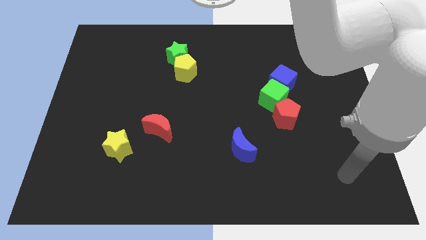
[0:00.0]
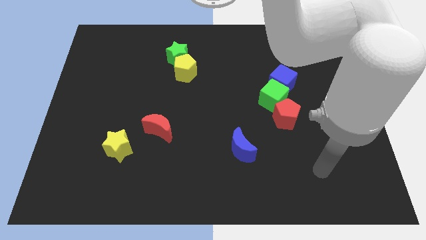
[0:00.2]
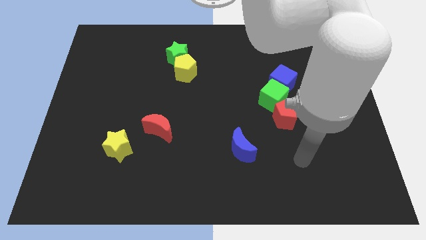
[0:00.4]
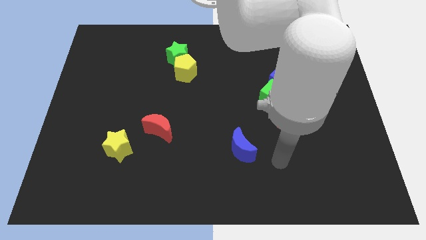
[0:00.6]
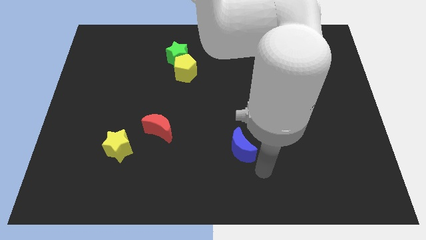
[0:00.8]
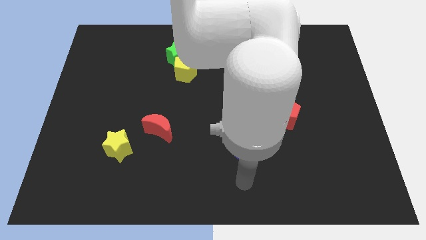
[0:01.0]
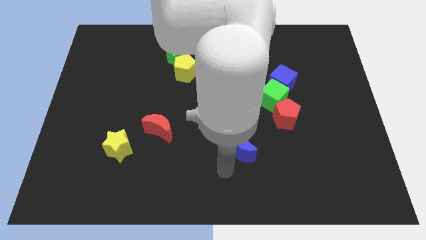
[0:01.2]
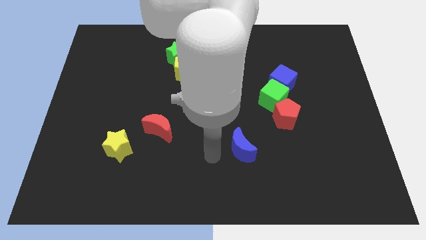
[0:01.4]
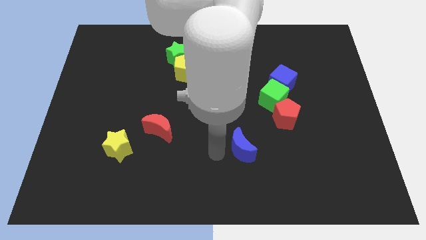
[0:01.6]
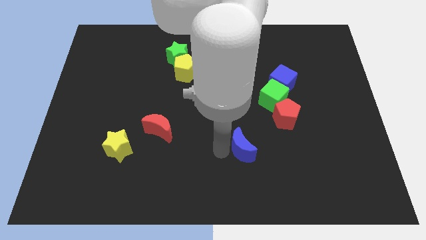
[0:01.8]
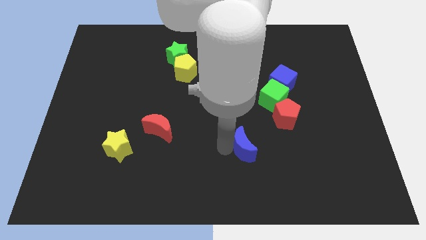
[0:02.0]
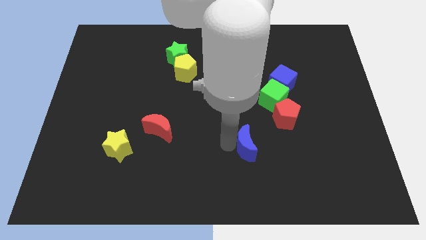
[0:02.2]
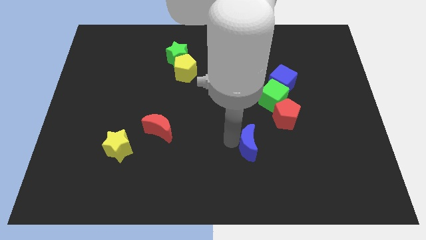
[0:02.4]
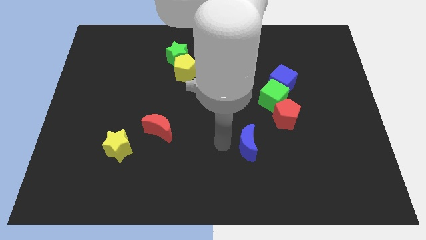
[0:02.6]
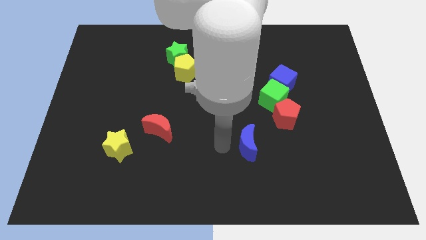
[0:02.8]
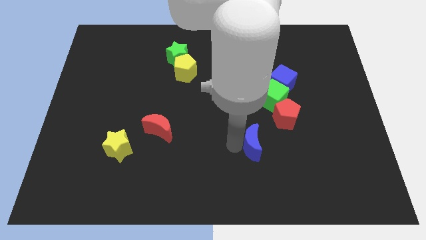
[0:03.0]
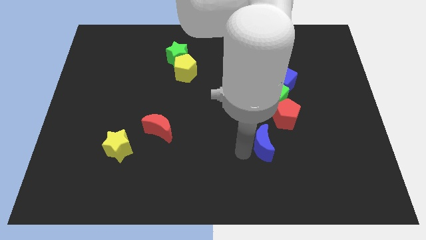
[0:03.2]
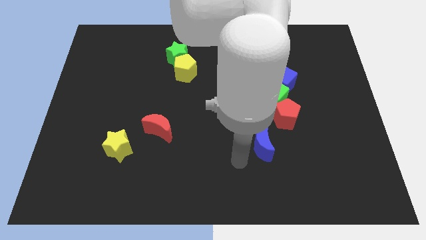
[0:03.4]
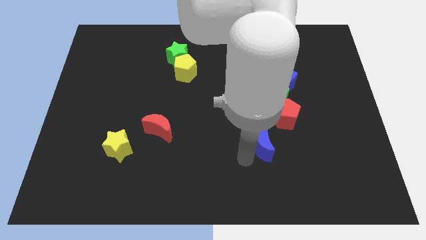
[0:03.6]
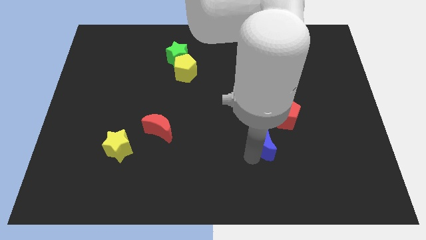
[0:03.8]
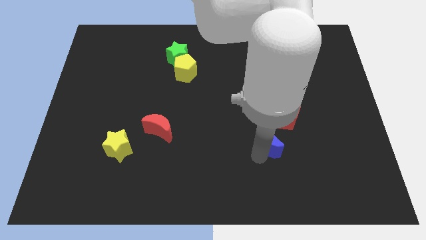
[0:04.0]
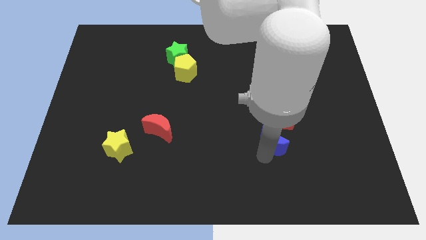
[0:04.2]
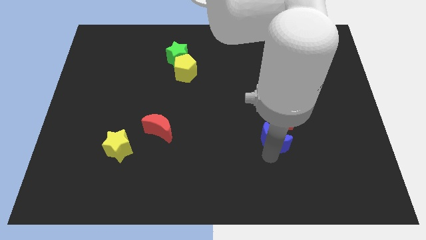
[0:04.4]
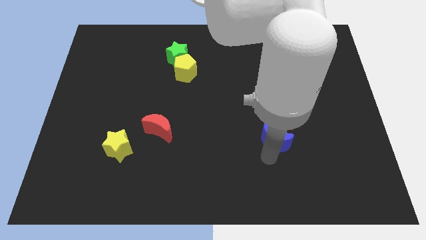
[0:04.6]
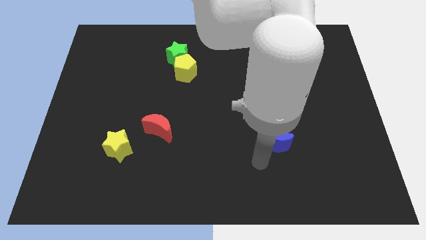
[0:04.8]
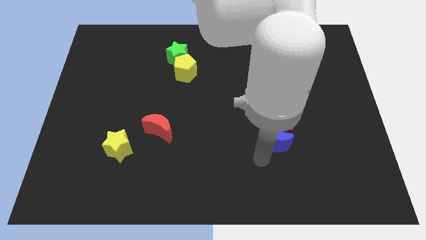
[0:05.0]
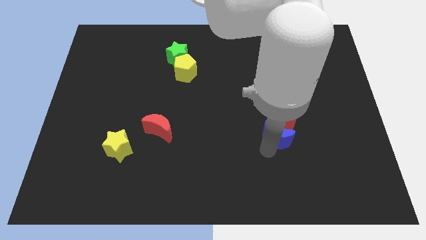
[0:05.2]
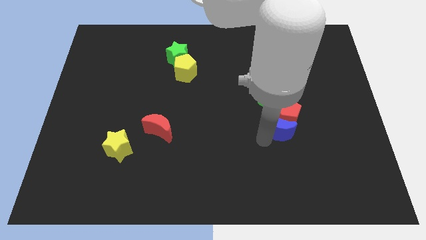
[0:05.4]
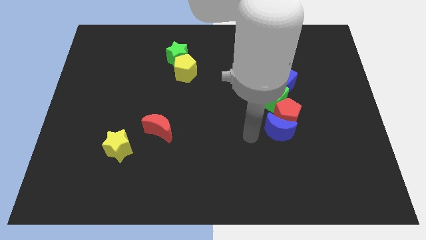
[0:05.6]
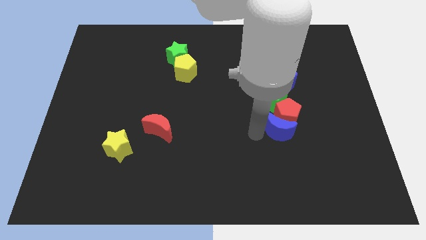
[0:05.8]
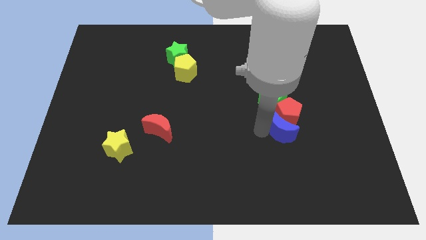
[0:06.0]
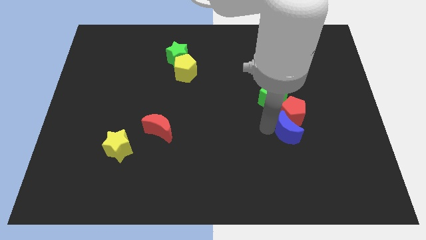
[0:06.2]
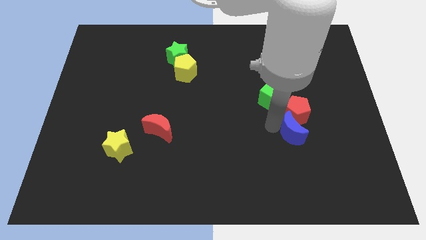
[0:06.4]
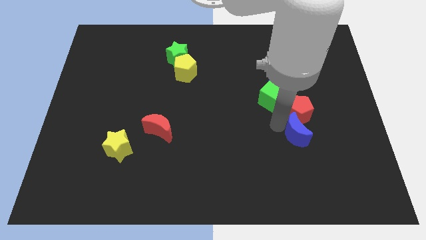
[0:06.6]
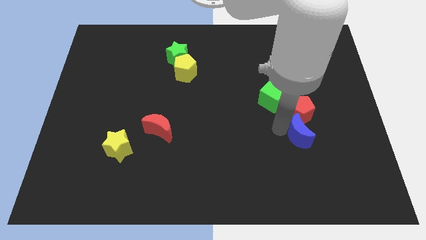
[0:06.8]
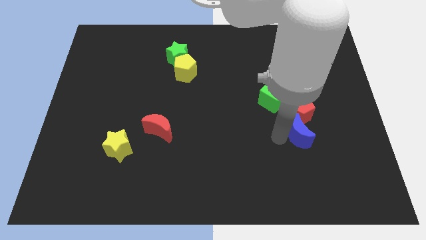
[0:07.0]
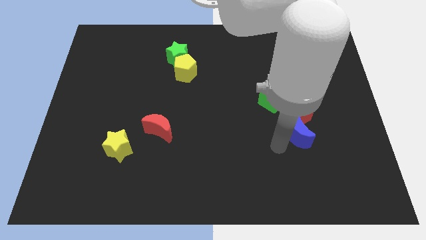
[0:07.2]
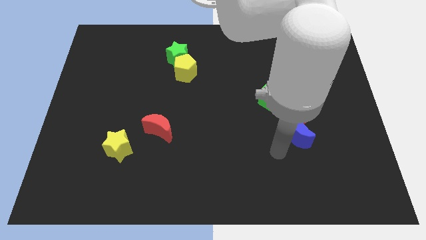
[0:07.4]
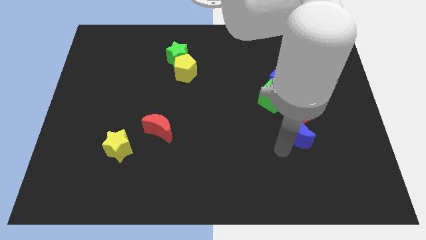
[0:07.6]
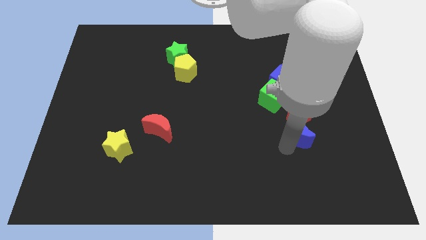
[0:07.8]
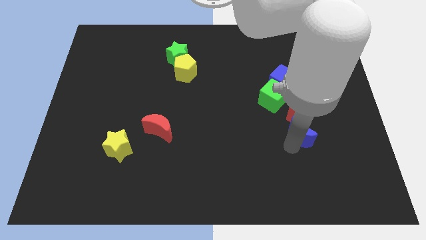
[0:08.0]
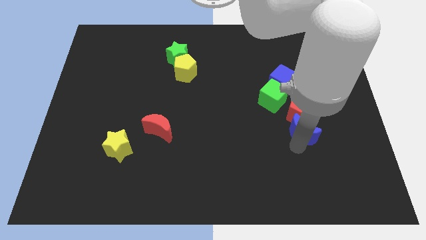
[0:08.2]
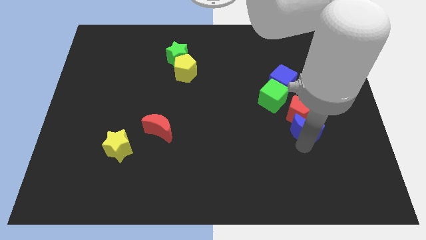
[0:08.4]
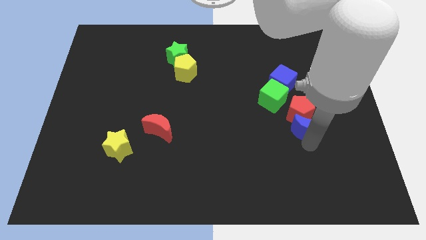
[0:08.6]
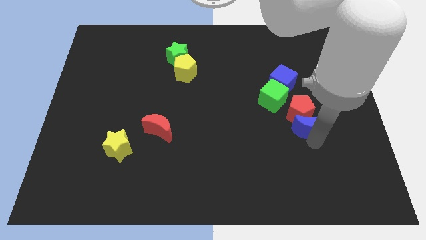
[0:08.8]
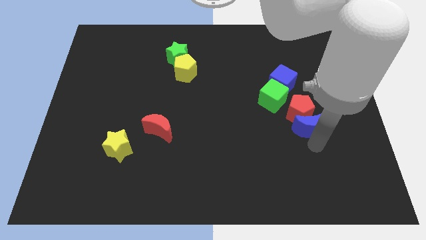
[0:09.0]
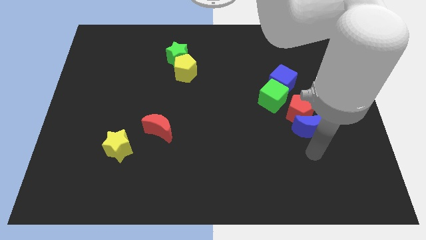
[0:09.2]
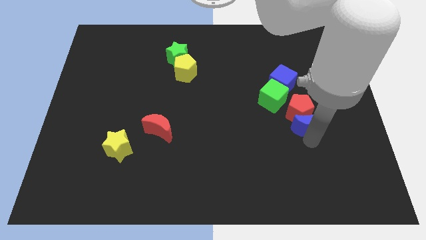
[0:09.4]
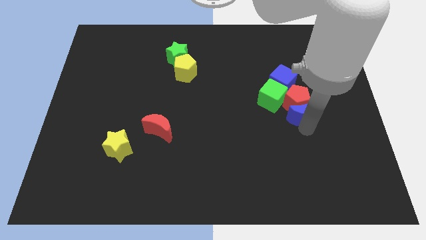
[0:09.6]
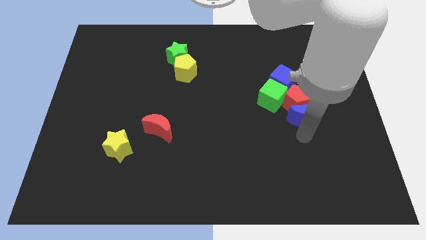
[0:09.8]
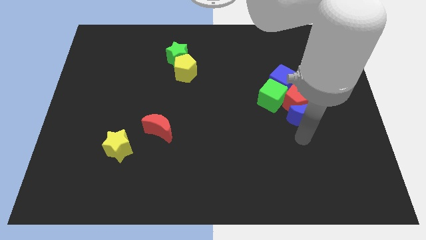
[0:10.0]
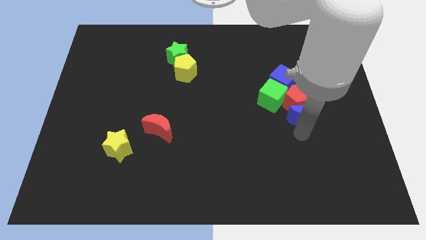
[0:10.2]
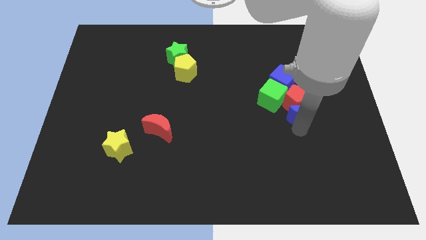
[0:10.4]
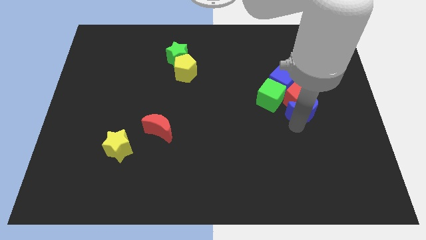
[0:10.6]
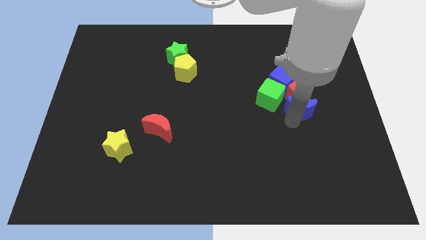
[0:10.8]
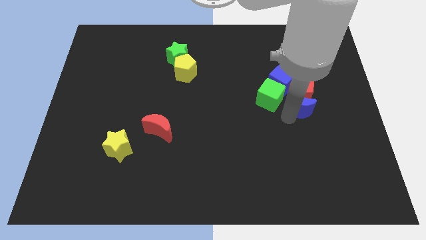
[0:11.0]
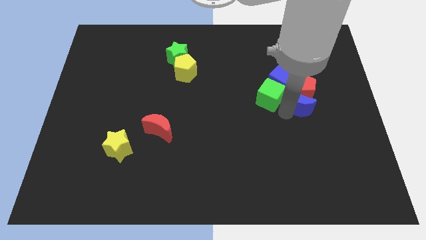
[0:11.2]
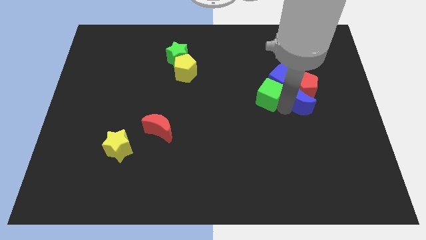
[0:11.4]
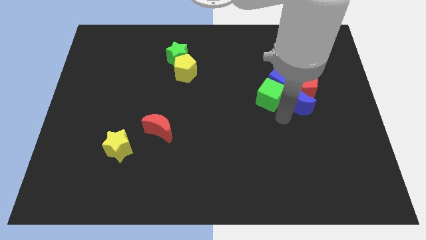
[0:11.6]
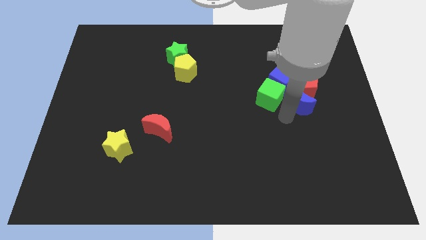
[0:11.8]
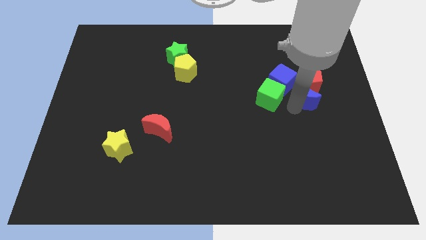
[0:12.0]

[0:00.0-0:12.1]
push the blue moon up and to the right diagonally

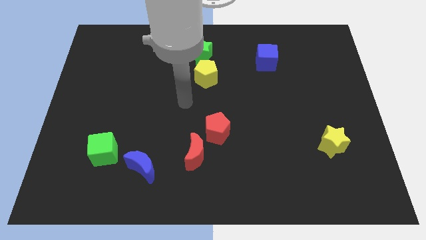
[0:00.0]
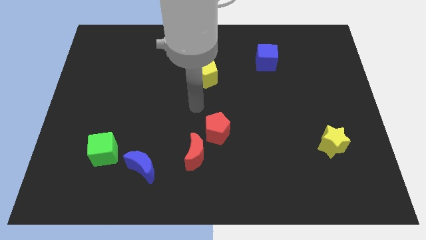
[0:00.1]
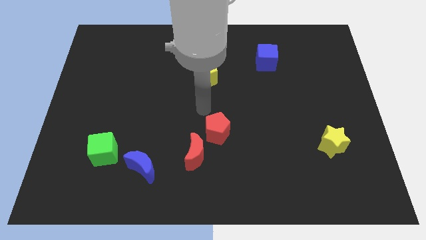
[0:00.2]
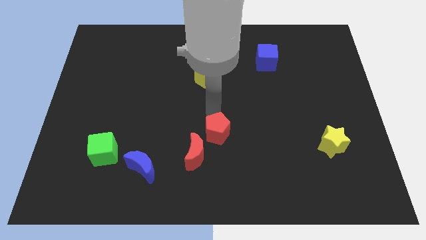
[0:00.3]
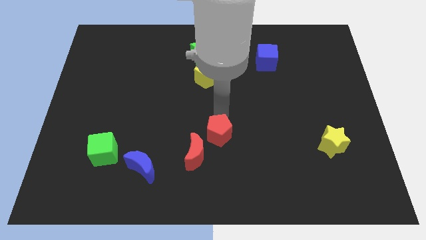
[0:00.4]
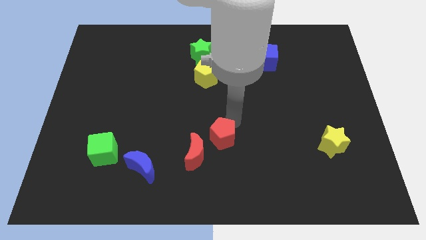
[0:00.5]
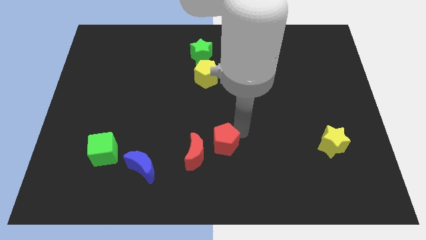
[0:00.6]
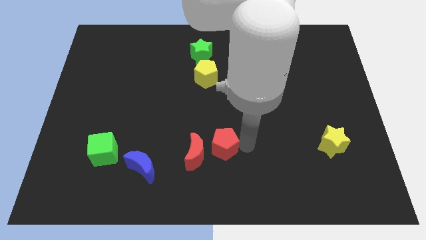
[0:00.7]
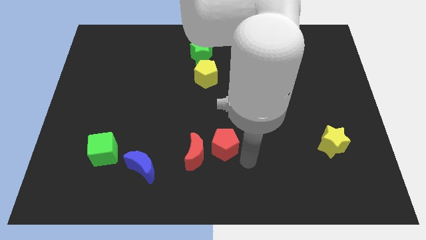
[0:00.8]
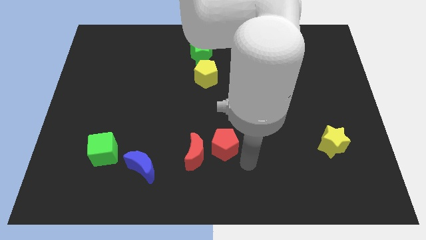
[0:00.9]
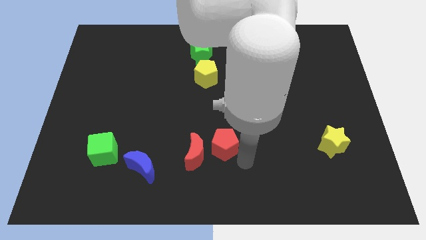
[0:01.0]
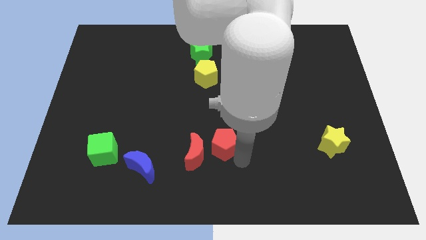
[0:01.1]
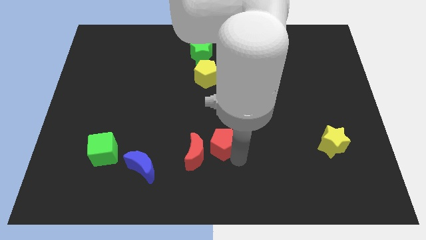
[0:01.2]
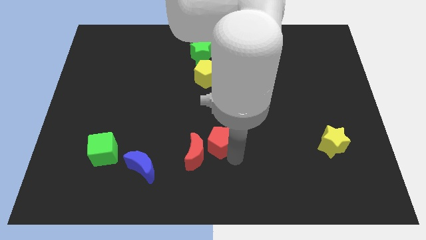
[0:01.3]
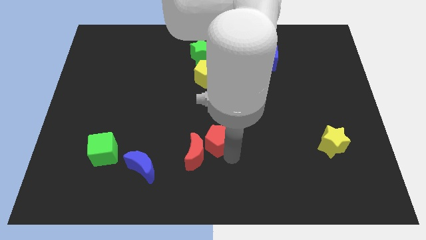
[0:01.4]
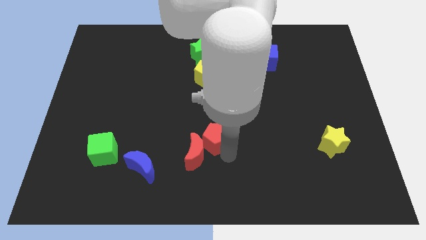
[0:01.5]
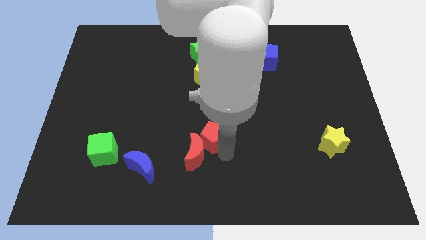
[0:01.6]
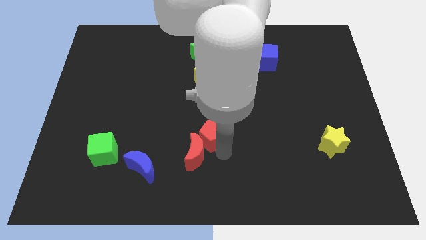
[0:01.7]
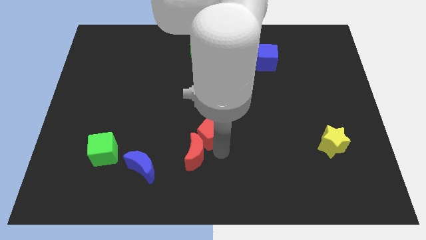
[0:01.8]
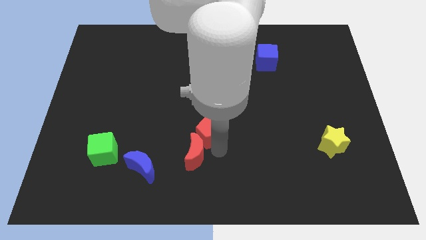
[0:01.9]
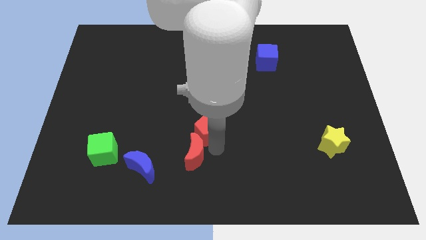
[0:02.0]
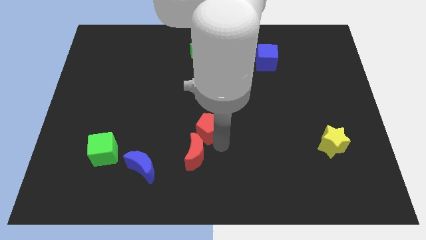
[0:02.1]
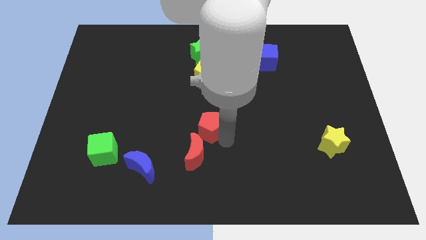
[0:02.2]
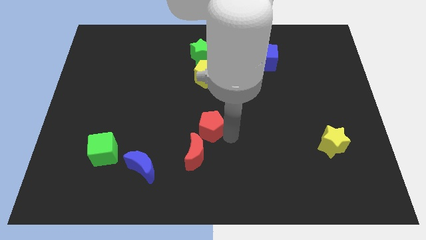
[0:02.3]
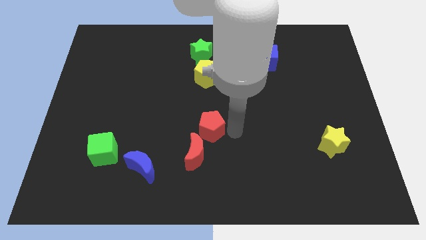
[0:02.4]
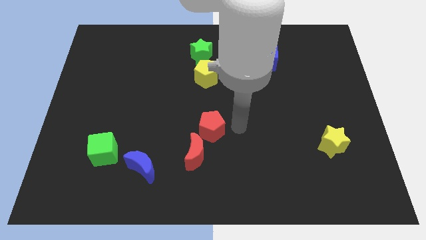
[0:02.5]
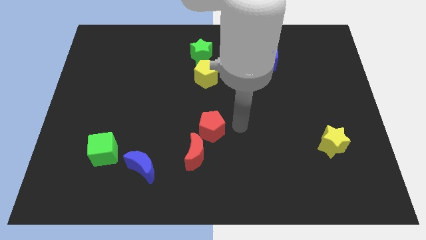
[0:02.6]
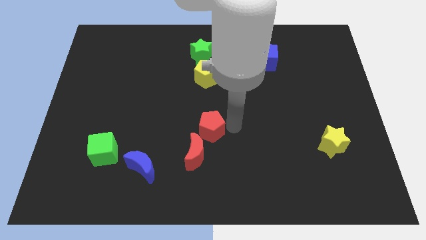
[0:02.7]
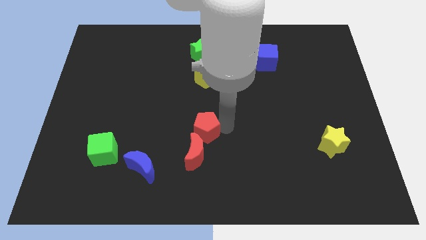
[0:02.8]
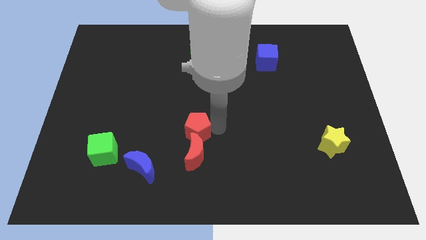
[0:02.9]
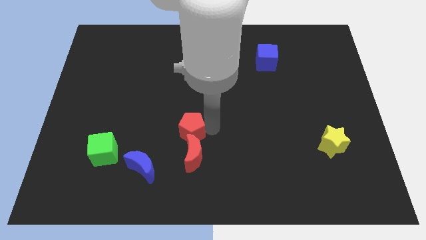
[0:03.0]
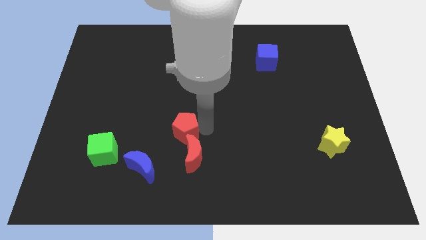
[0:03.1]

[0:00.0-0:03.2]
slightly push the red pentagon left
